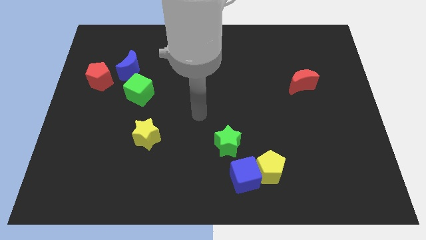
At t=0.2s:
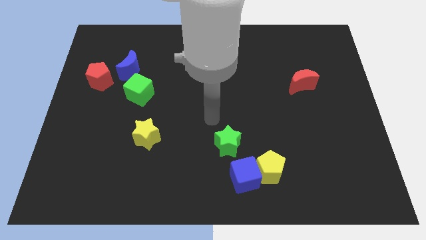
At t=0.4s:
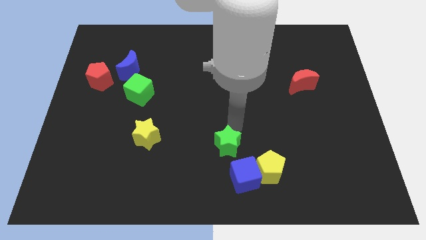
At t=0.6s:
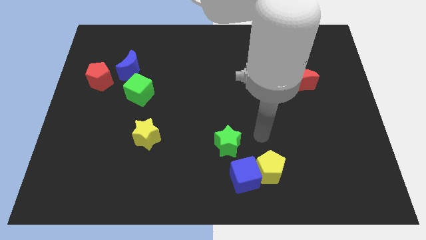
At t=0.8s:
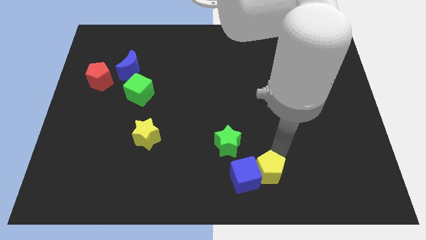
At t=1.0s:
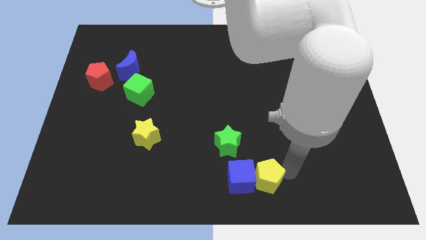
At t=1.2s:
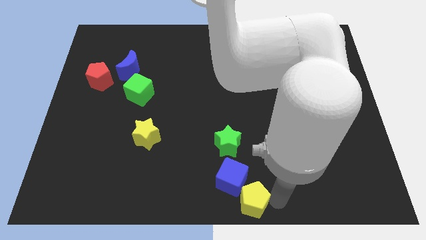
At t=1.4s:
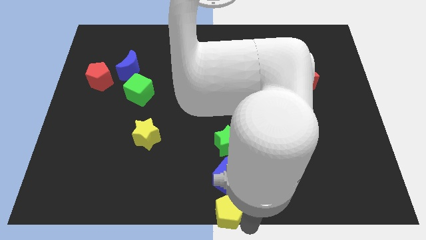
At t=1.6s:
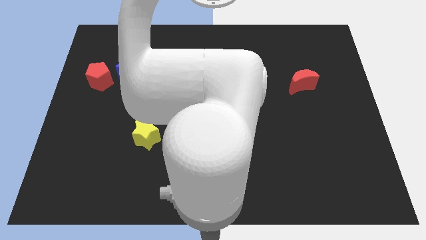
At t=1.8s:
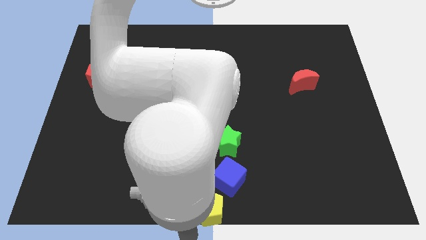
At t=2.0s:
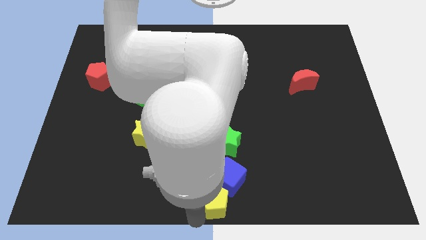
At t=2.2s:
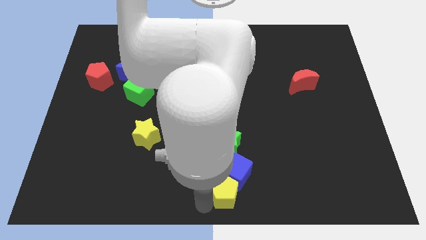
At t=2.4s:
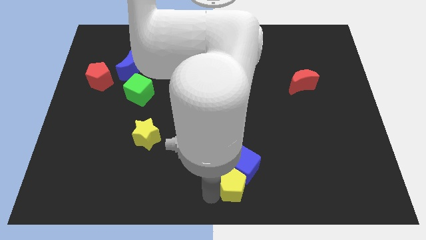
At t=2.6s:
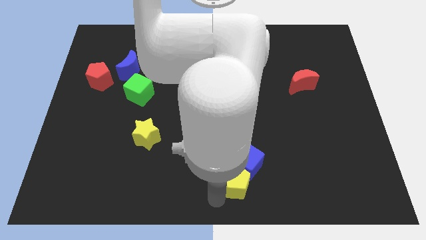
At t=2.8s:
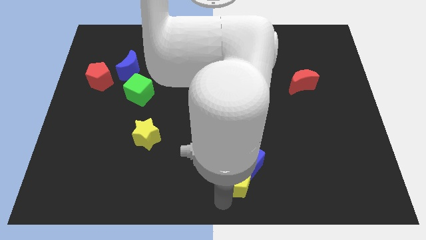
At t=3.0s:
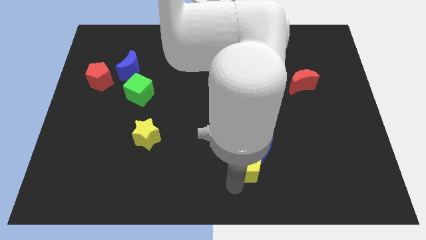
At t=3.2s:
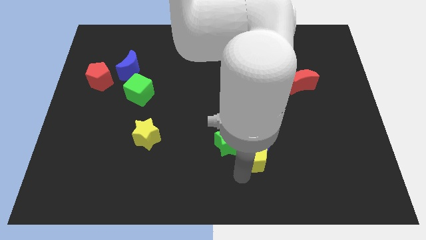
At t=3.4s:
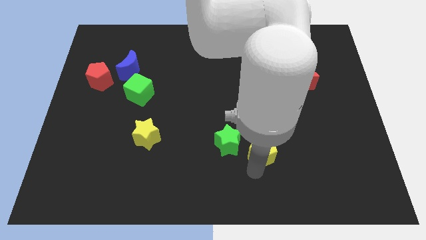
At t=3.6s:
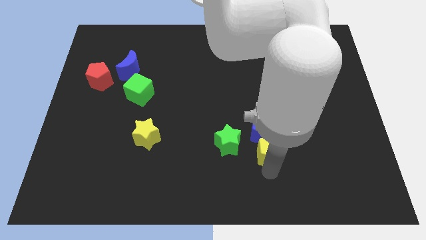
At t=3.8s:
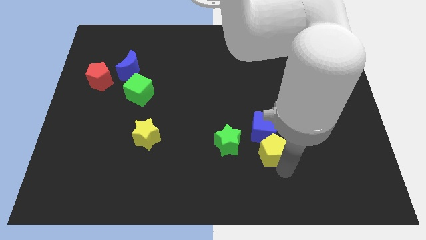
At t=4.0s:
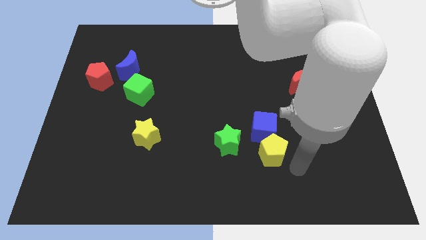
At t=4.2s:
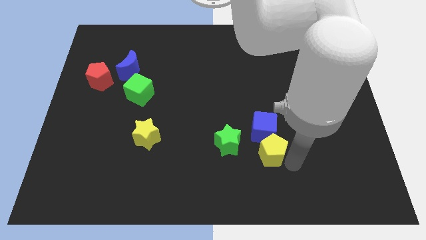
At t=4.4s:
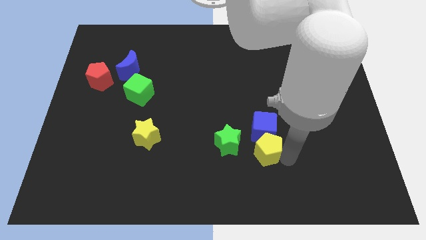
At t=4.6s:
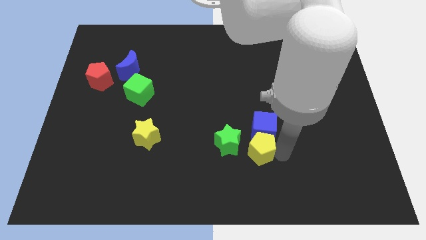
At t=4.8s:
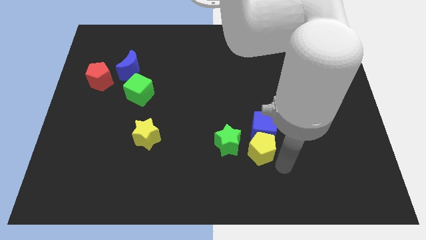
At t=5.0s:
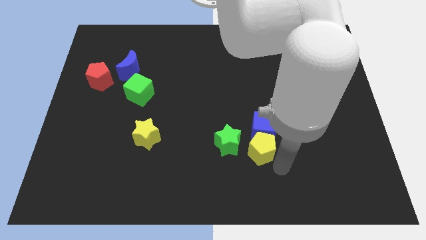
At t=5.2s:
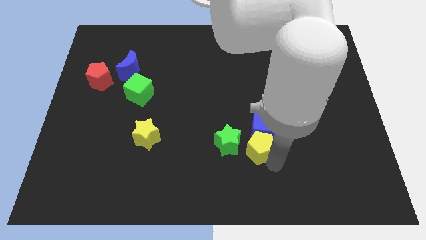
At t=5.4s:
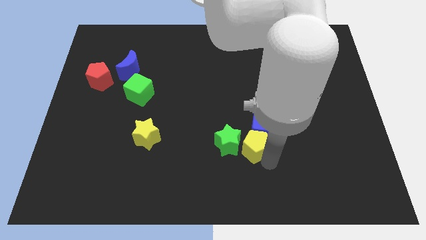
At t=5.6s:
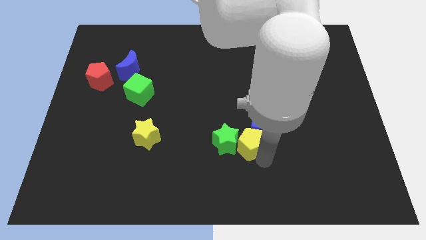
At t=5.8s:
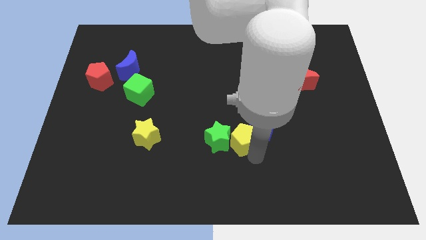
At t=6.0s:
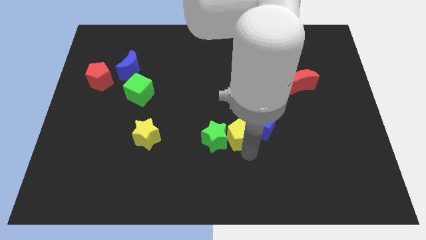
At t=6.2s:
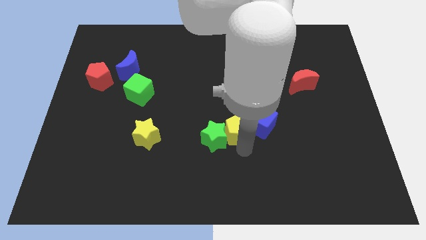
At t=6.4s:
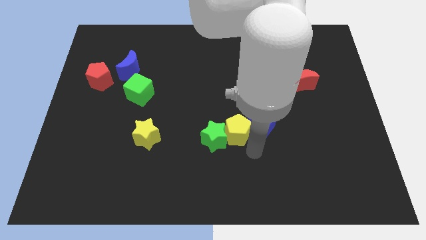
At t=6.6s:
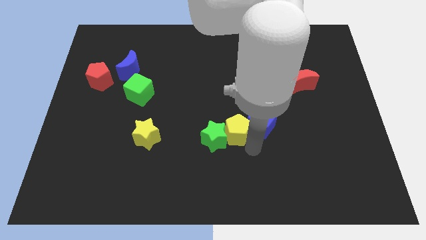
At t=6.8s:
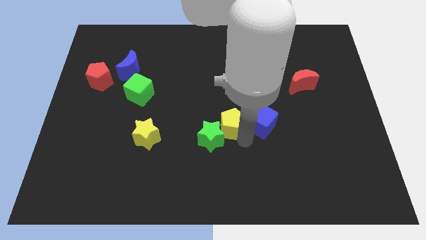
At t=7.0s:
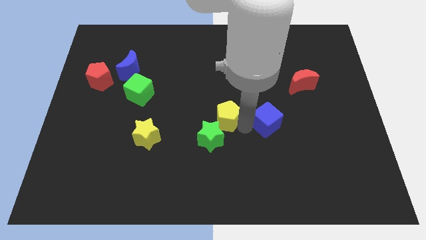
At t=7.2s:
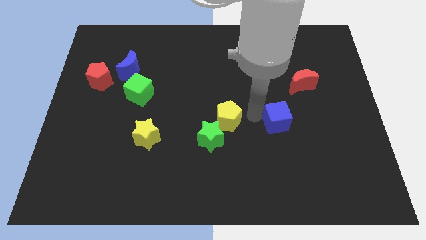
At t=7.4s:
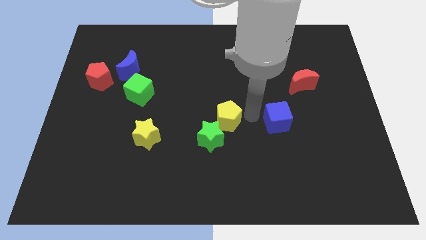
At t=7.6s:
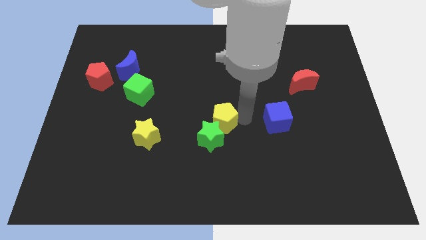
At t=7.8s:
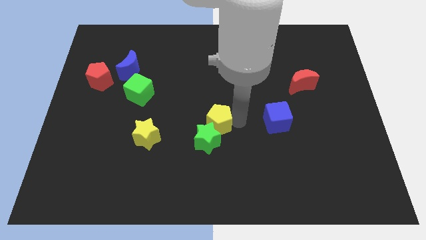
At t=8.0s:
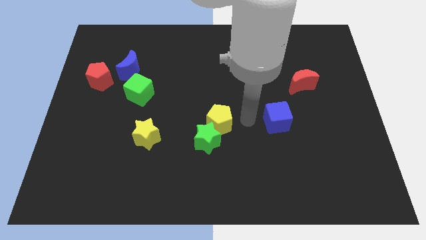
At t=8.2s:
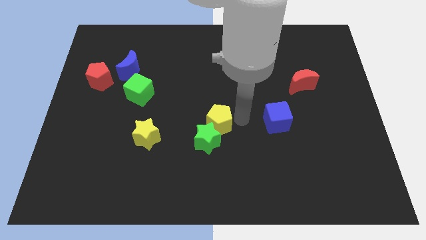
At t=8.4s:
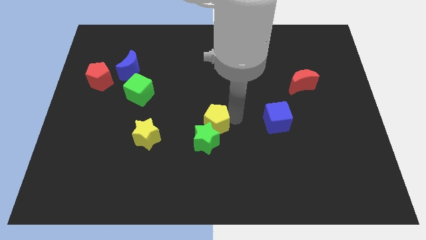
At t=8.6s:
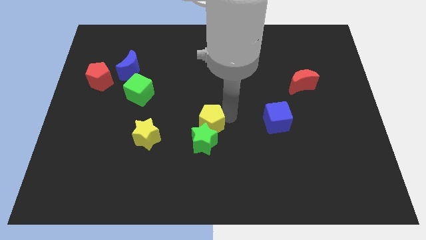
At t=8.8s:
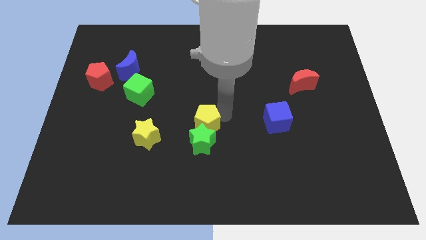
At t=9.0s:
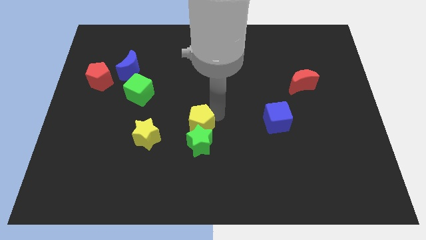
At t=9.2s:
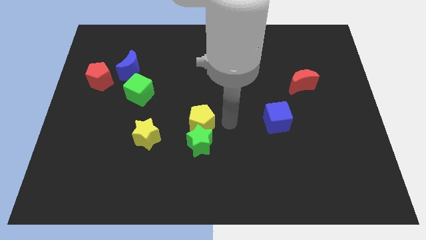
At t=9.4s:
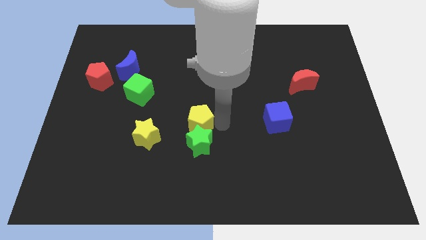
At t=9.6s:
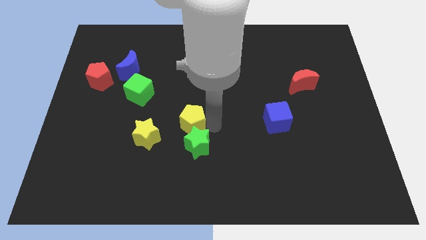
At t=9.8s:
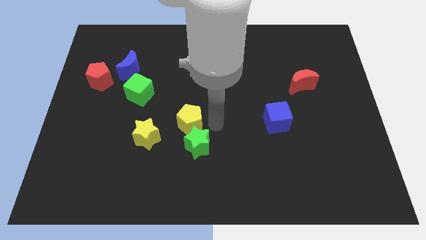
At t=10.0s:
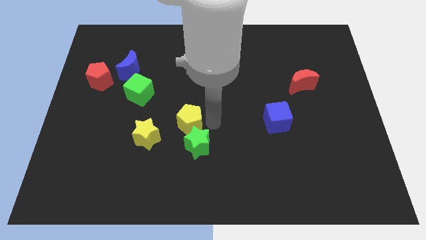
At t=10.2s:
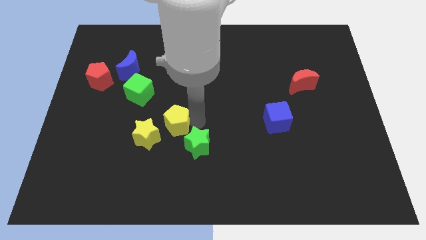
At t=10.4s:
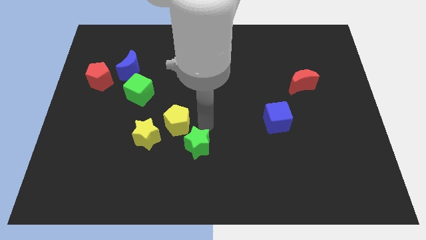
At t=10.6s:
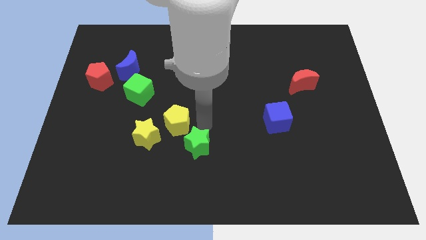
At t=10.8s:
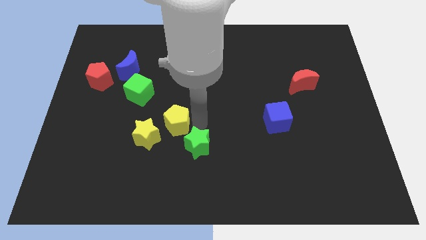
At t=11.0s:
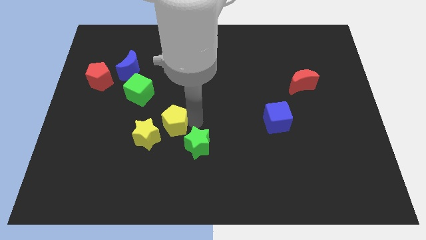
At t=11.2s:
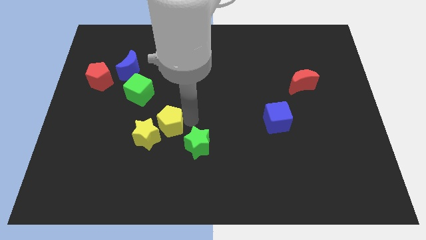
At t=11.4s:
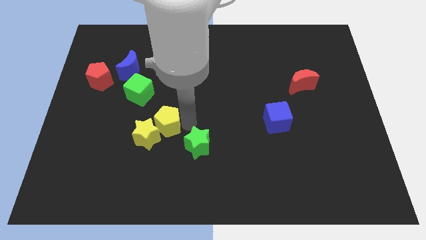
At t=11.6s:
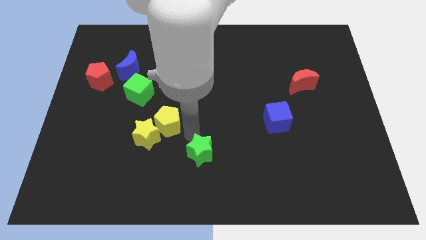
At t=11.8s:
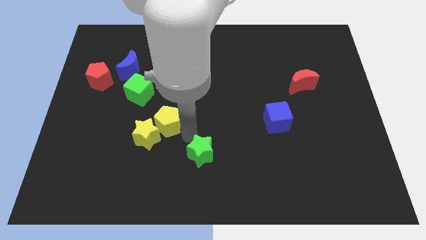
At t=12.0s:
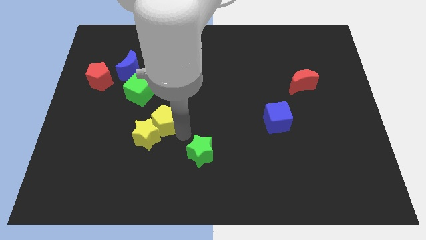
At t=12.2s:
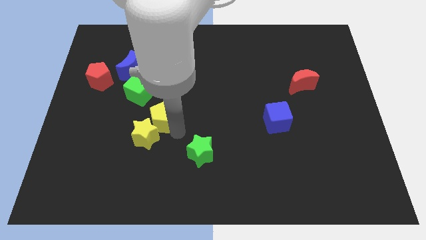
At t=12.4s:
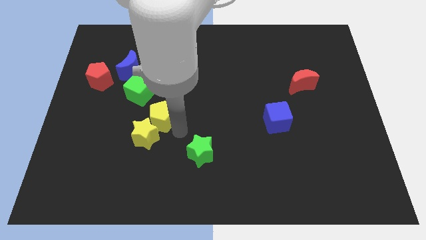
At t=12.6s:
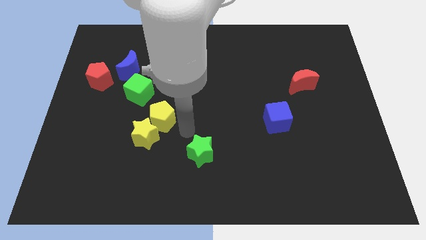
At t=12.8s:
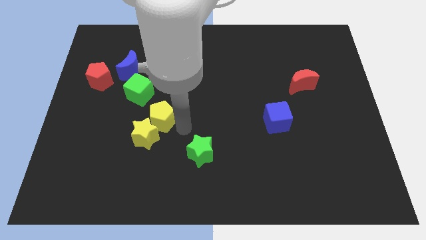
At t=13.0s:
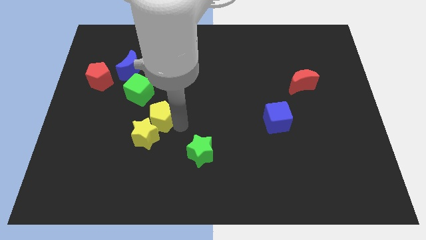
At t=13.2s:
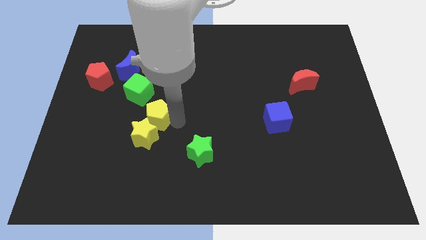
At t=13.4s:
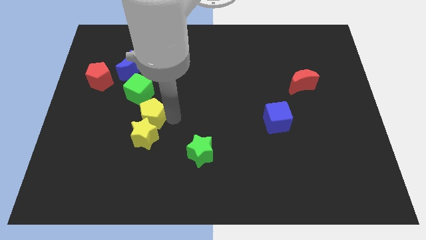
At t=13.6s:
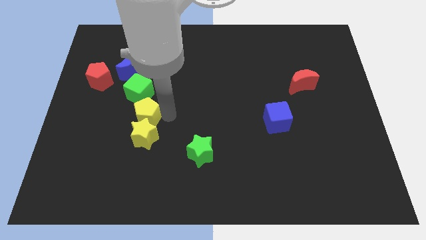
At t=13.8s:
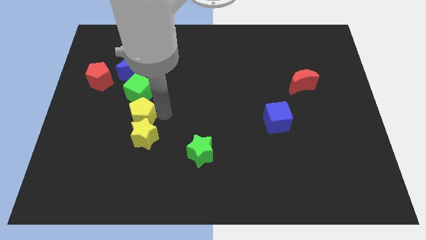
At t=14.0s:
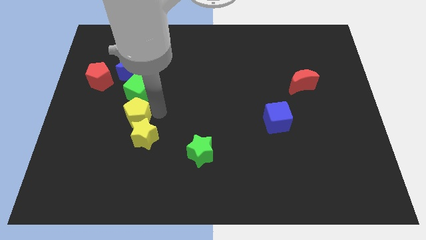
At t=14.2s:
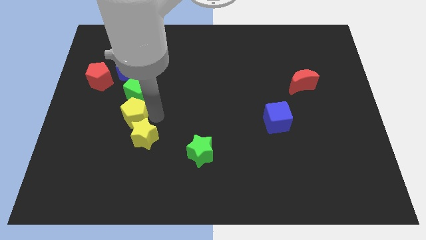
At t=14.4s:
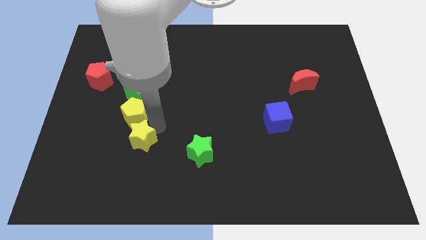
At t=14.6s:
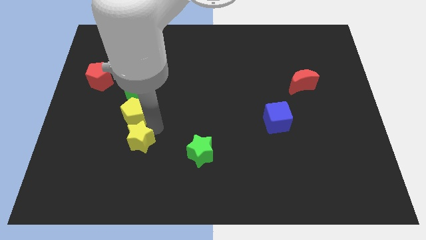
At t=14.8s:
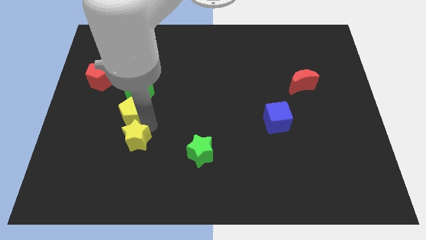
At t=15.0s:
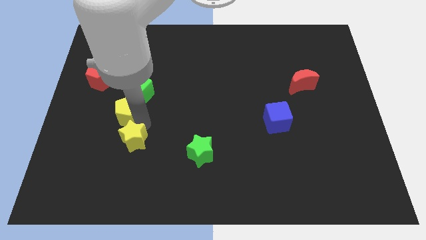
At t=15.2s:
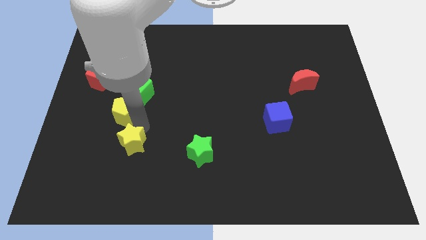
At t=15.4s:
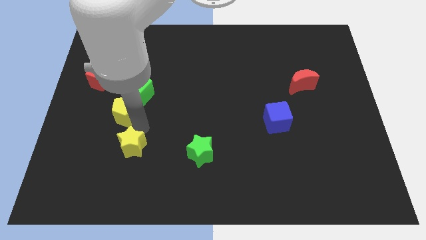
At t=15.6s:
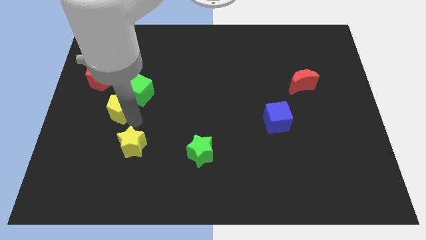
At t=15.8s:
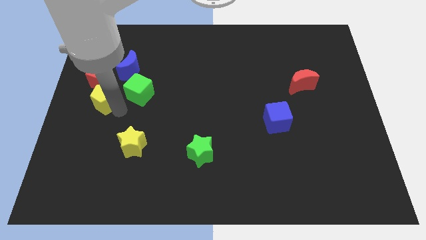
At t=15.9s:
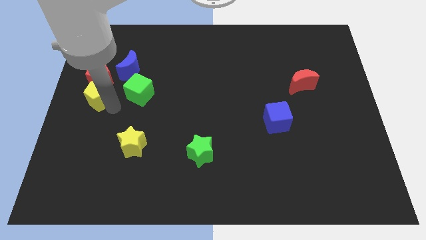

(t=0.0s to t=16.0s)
push the yellow pentagon to the red pentagon
